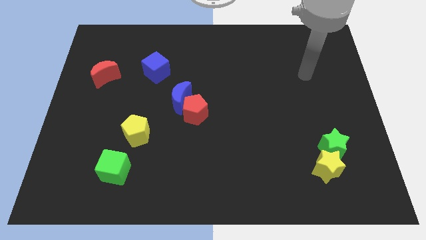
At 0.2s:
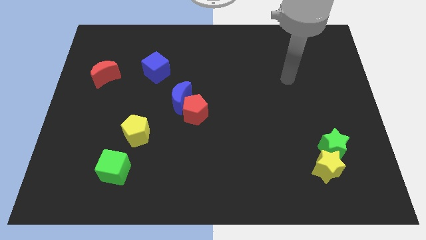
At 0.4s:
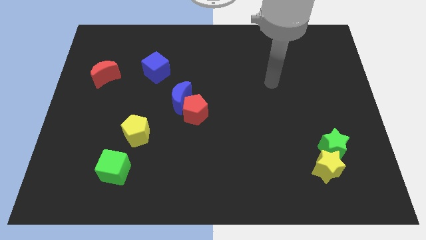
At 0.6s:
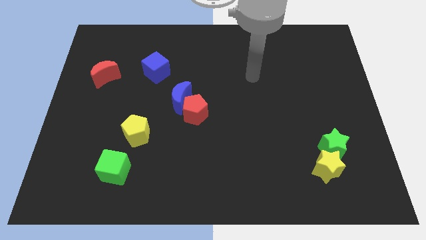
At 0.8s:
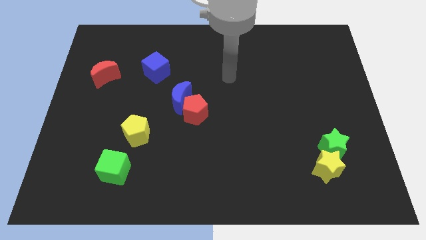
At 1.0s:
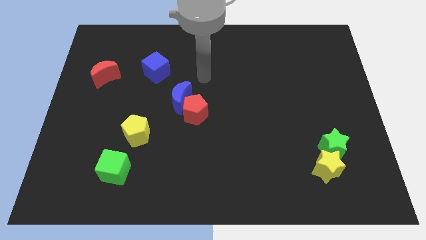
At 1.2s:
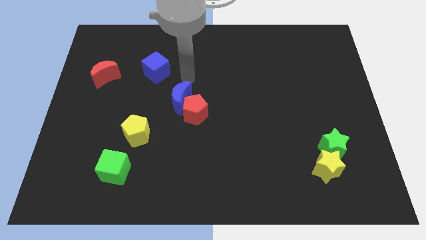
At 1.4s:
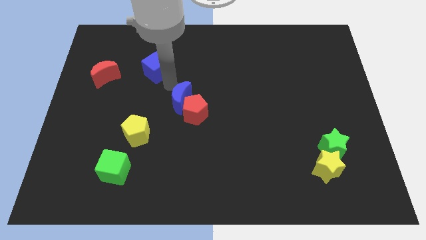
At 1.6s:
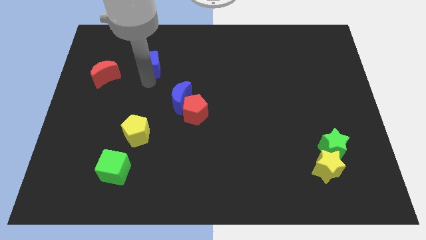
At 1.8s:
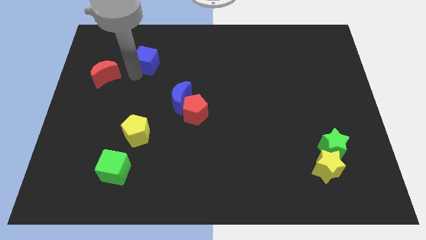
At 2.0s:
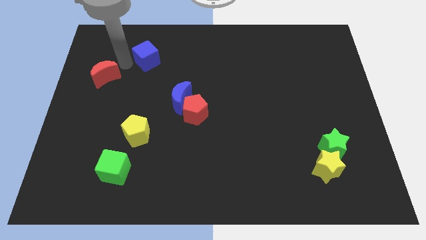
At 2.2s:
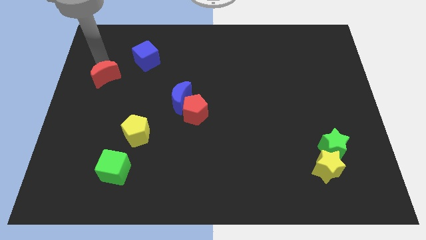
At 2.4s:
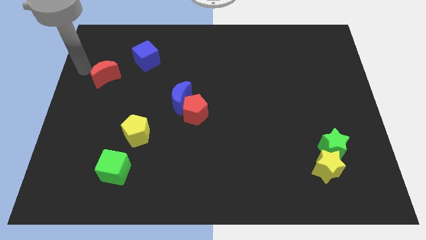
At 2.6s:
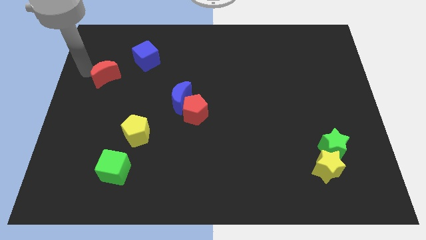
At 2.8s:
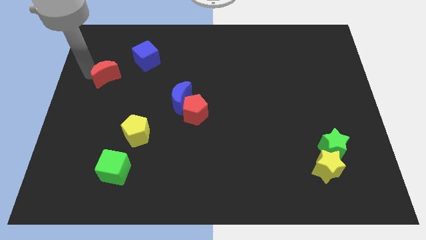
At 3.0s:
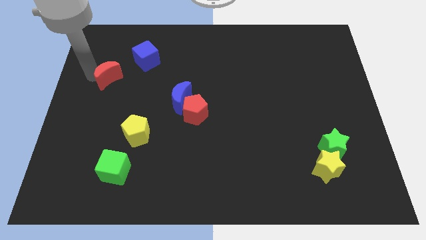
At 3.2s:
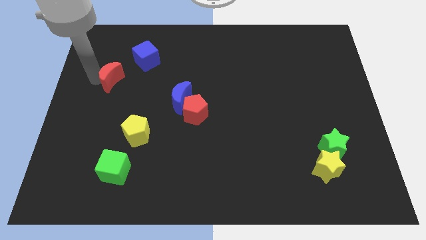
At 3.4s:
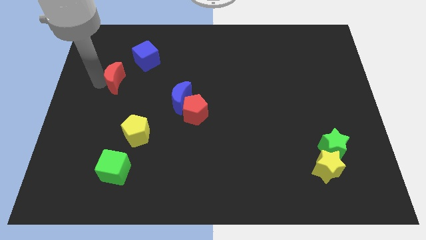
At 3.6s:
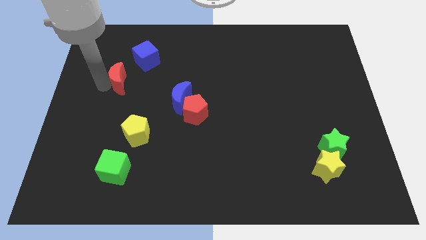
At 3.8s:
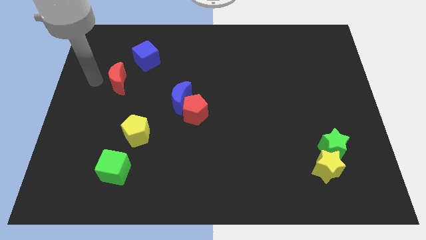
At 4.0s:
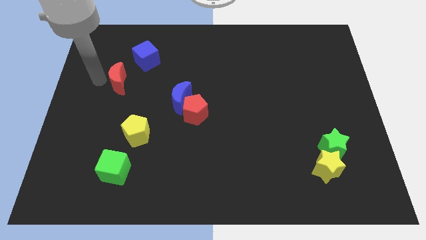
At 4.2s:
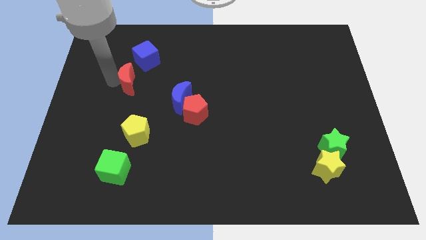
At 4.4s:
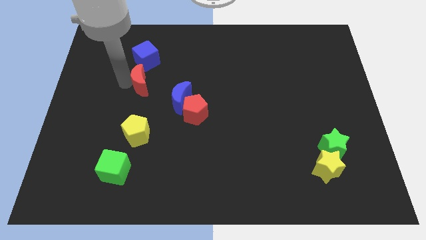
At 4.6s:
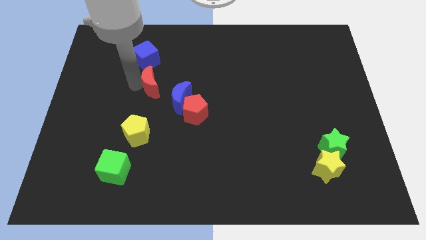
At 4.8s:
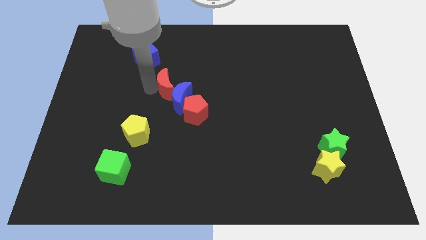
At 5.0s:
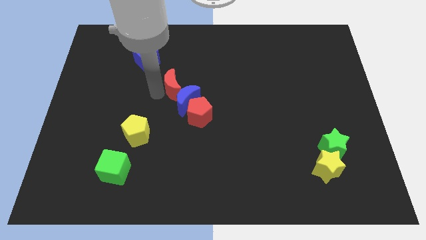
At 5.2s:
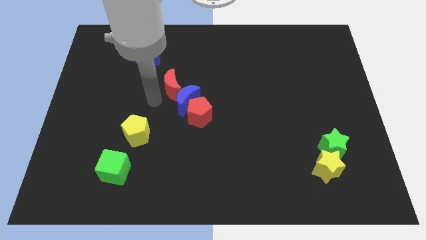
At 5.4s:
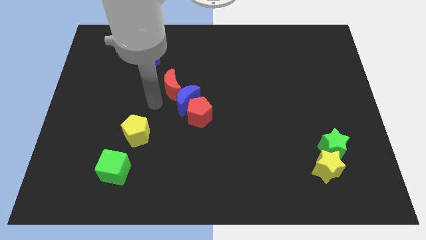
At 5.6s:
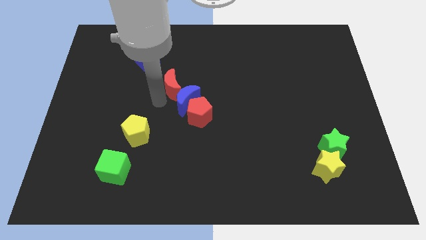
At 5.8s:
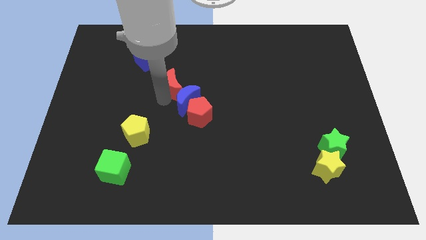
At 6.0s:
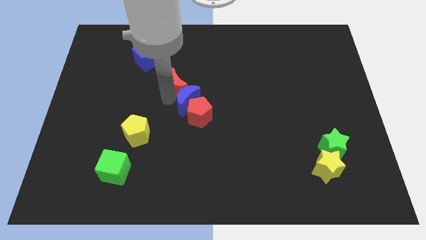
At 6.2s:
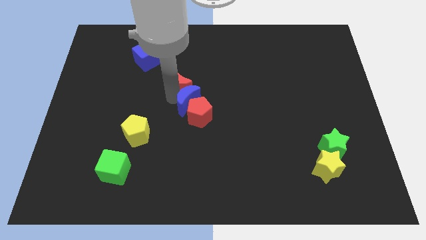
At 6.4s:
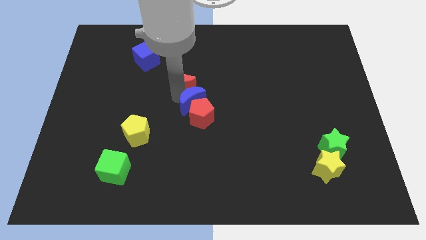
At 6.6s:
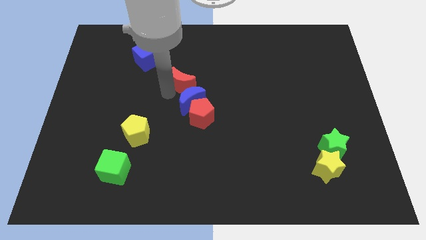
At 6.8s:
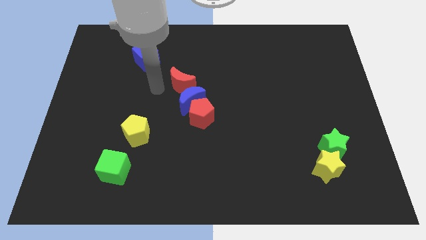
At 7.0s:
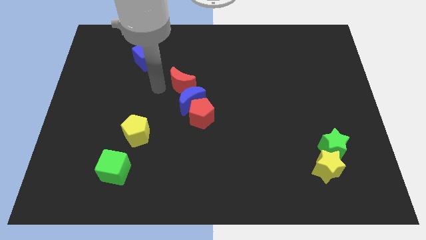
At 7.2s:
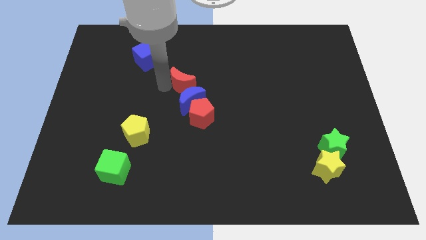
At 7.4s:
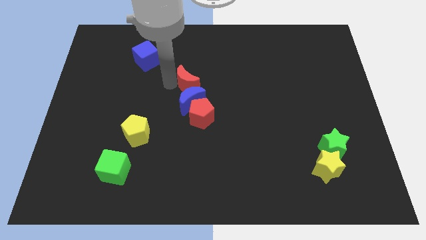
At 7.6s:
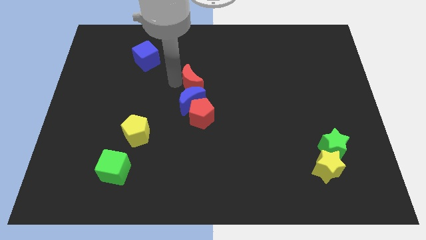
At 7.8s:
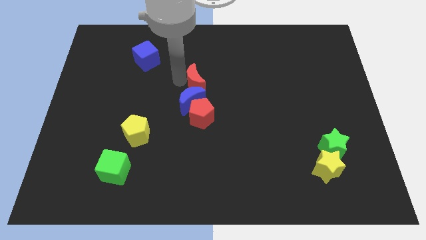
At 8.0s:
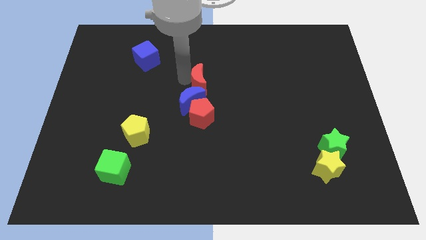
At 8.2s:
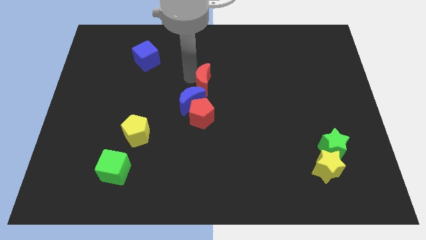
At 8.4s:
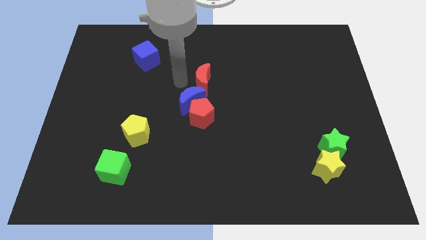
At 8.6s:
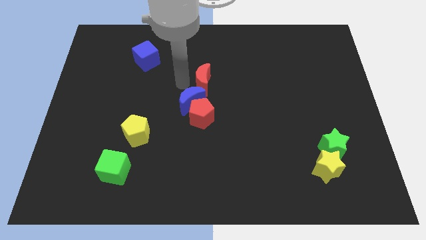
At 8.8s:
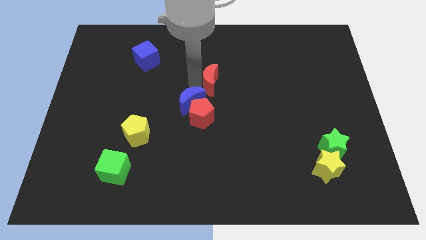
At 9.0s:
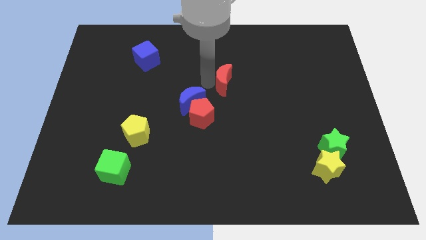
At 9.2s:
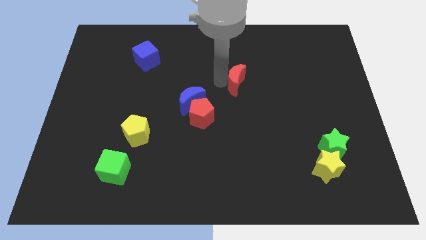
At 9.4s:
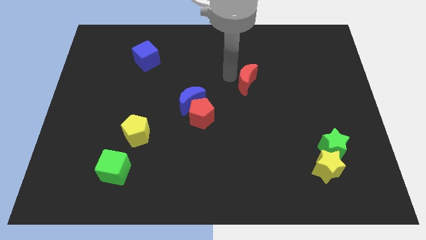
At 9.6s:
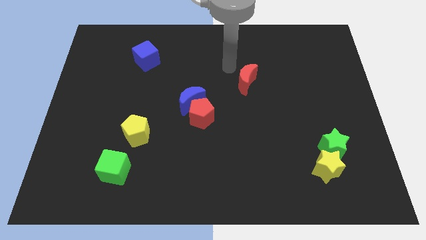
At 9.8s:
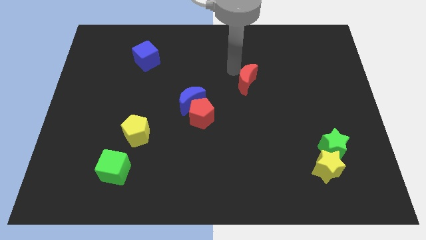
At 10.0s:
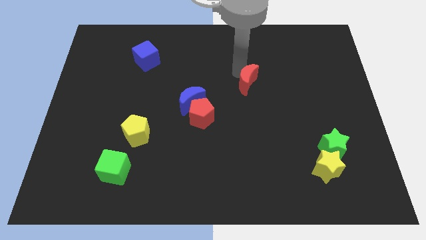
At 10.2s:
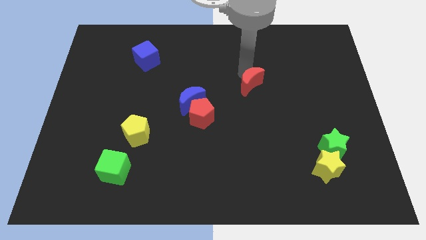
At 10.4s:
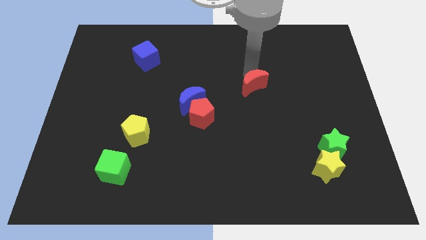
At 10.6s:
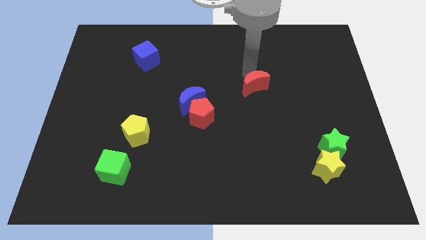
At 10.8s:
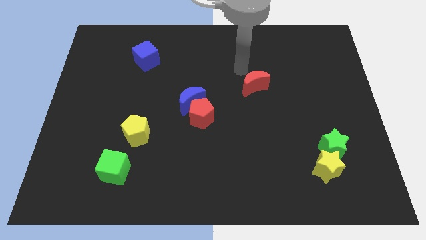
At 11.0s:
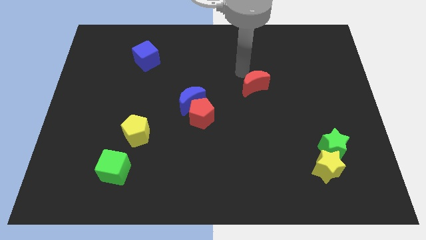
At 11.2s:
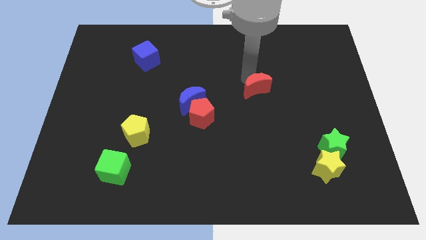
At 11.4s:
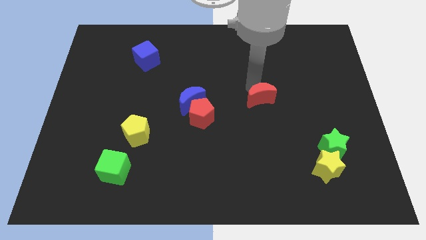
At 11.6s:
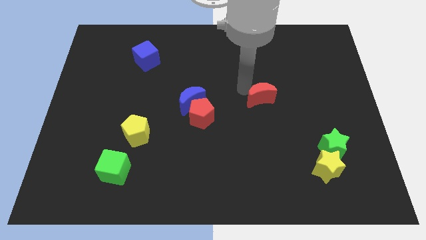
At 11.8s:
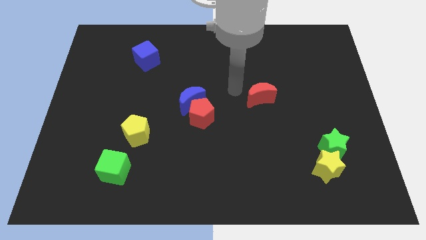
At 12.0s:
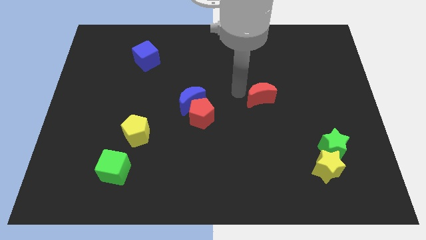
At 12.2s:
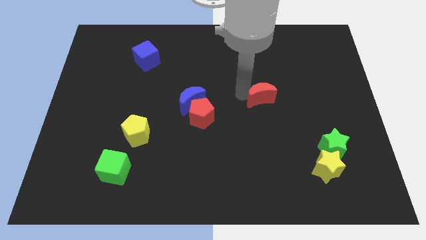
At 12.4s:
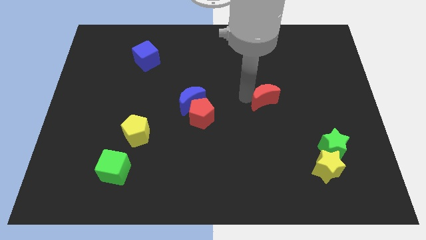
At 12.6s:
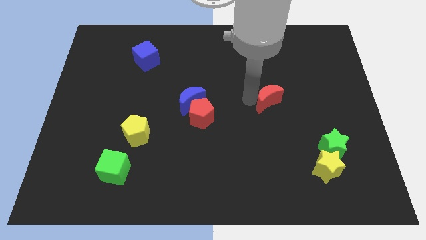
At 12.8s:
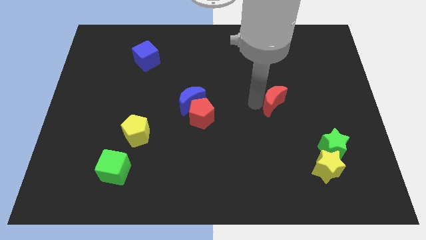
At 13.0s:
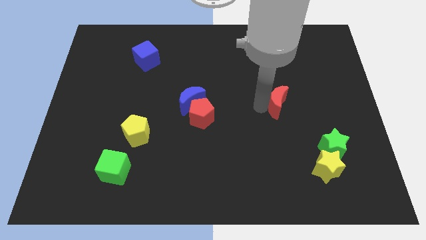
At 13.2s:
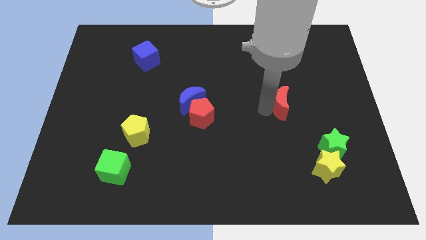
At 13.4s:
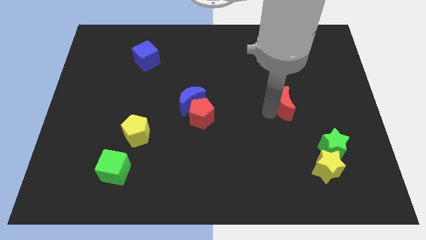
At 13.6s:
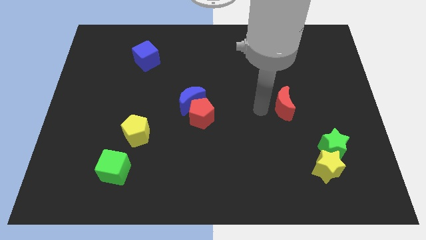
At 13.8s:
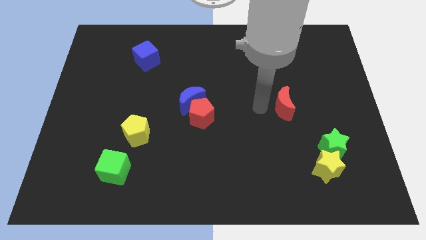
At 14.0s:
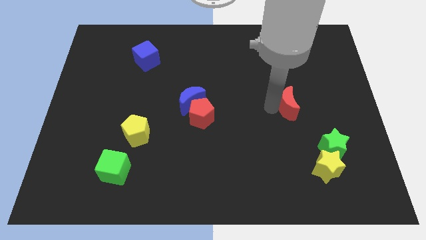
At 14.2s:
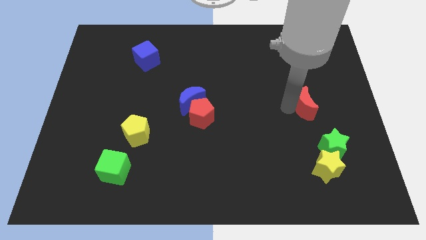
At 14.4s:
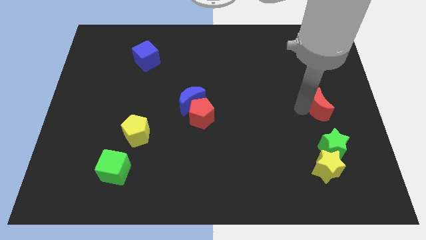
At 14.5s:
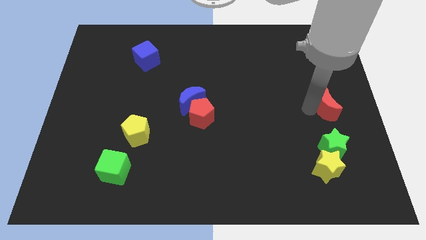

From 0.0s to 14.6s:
push the red moon to the right side of the board
